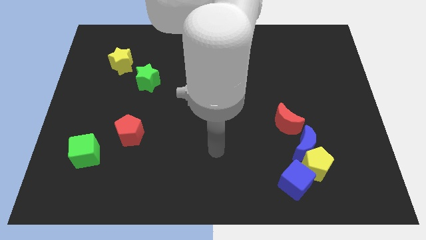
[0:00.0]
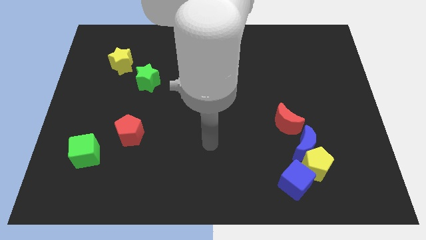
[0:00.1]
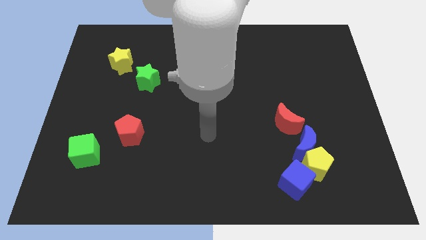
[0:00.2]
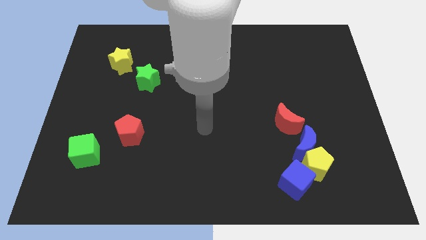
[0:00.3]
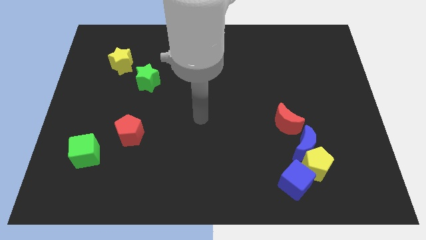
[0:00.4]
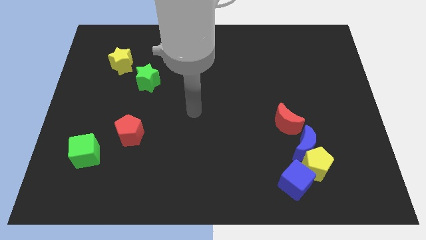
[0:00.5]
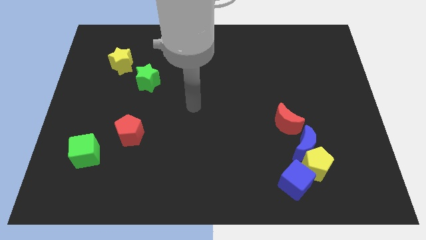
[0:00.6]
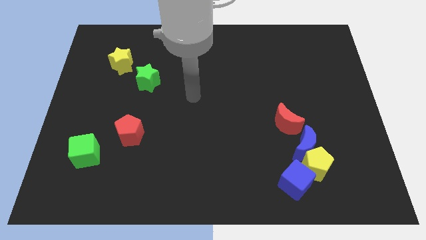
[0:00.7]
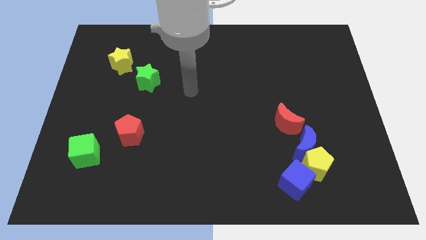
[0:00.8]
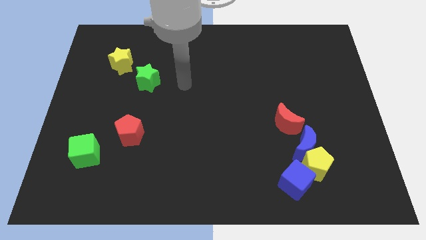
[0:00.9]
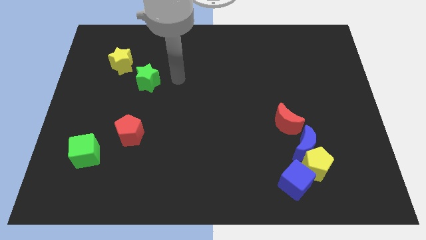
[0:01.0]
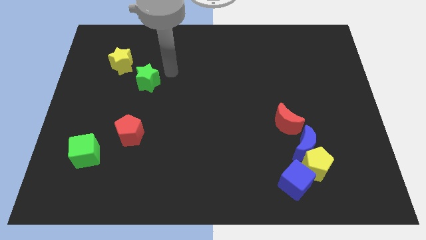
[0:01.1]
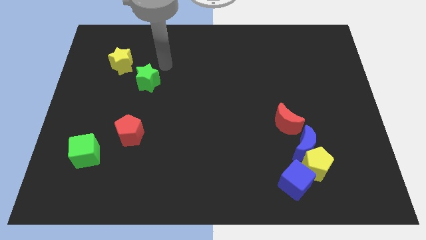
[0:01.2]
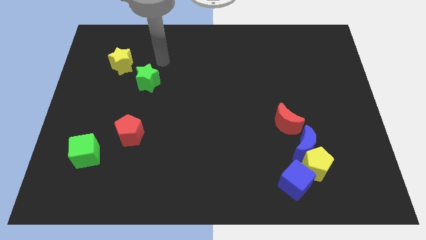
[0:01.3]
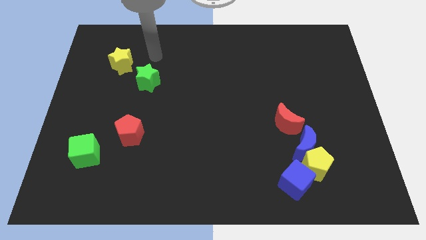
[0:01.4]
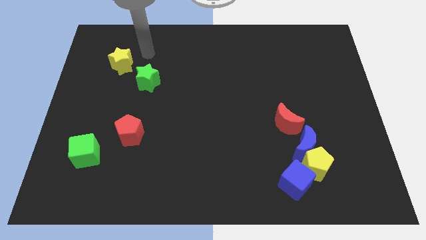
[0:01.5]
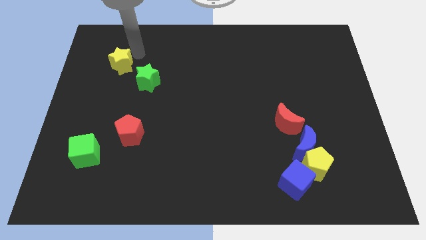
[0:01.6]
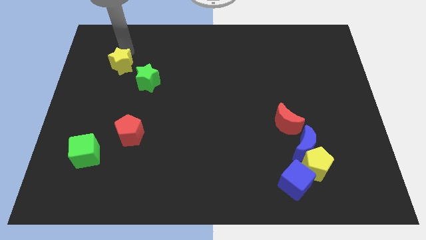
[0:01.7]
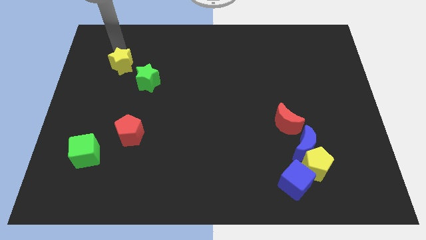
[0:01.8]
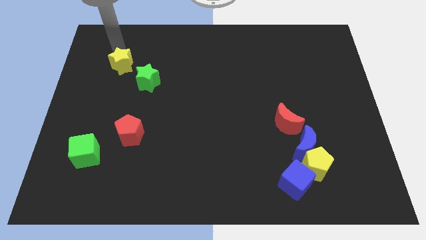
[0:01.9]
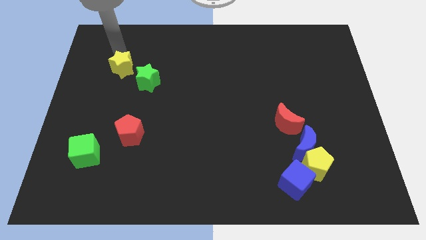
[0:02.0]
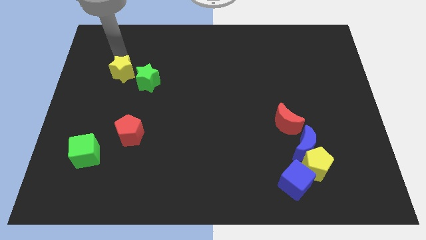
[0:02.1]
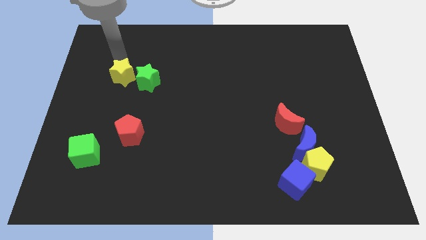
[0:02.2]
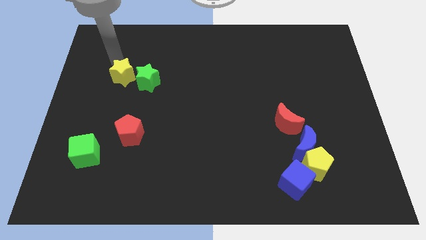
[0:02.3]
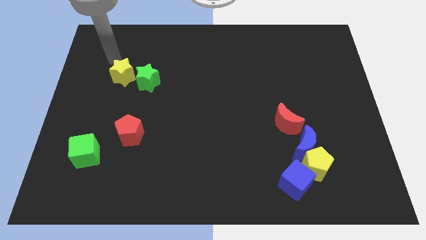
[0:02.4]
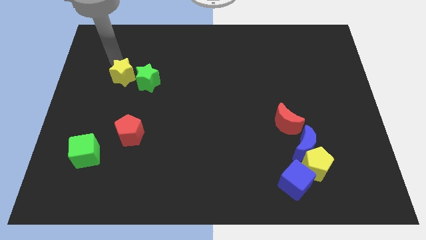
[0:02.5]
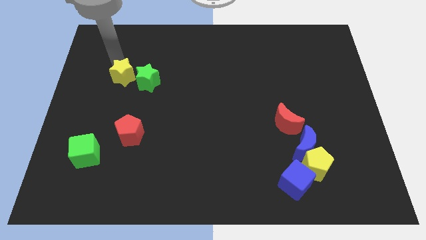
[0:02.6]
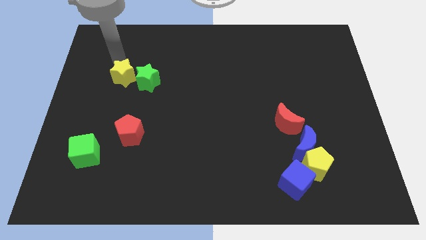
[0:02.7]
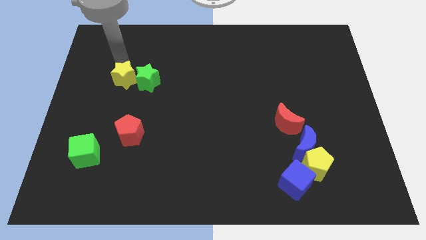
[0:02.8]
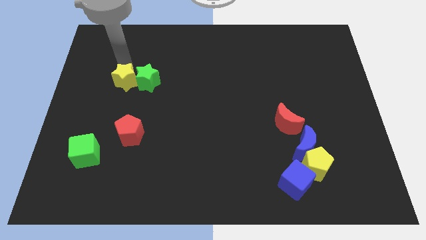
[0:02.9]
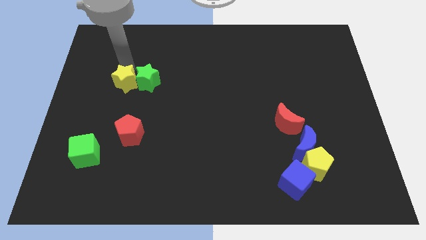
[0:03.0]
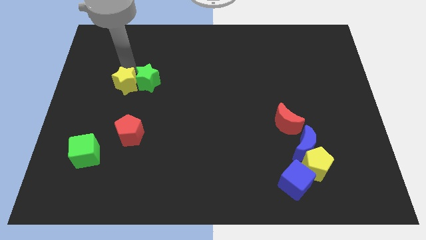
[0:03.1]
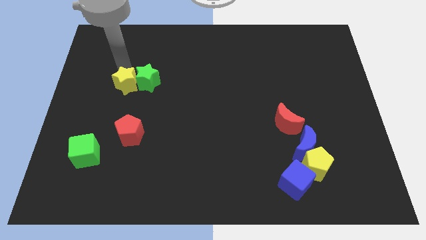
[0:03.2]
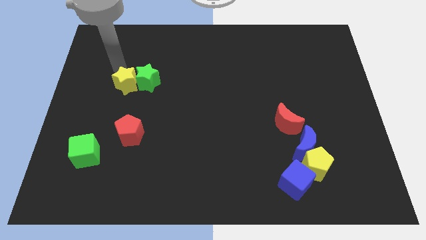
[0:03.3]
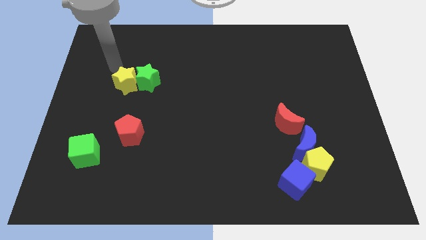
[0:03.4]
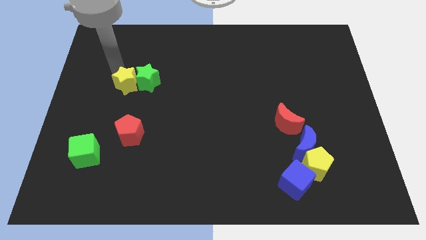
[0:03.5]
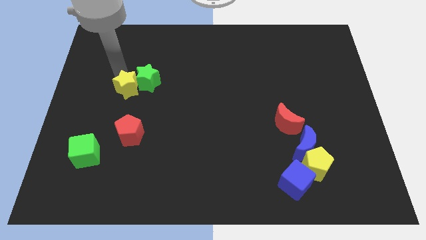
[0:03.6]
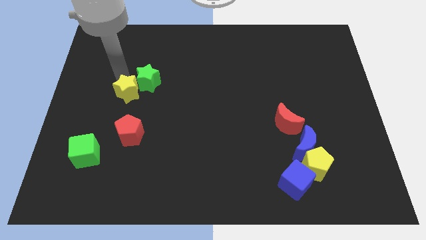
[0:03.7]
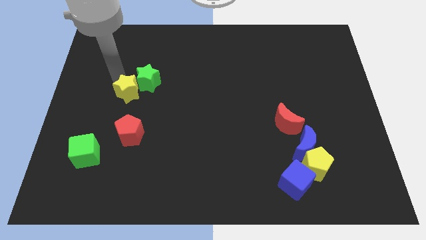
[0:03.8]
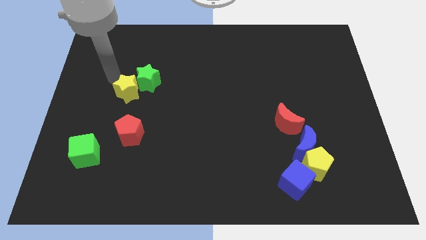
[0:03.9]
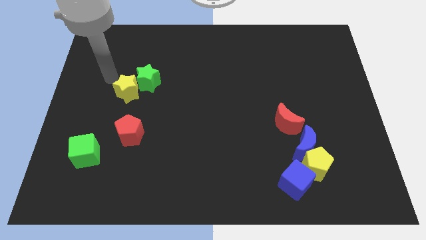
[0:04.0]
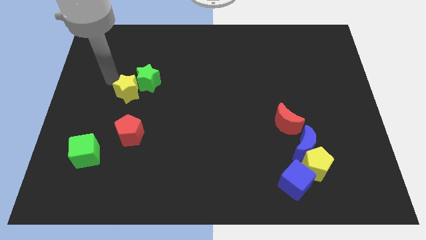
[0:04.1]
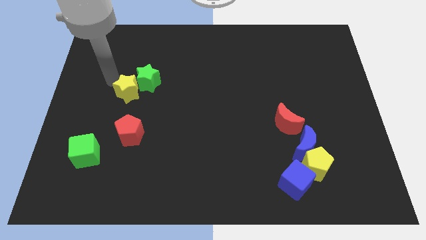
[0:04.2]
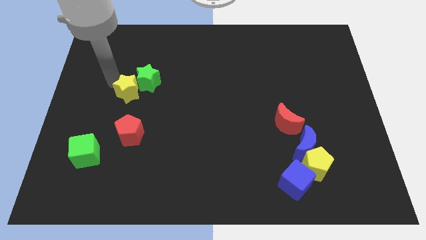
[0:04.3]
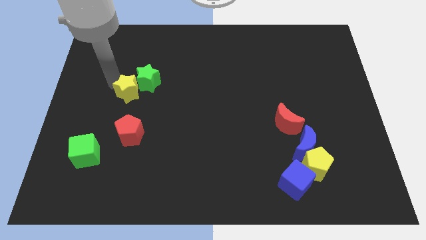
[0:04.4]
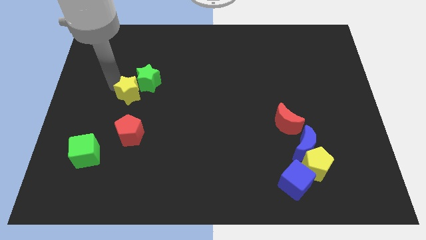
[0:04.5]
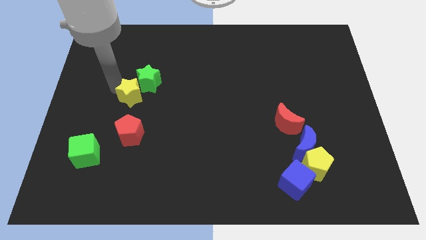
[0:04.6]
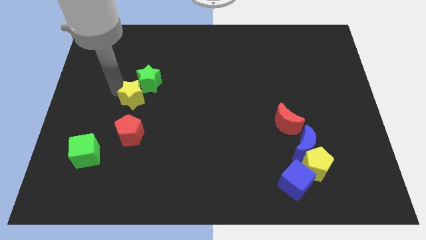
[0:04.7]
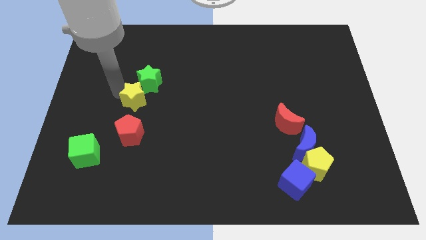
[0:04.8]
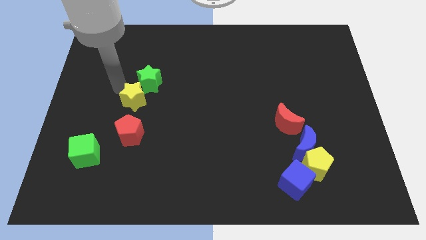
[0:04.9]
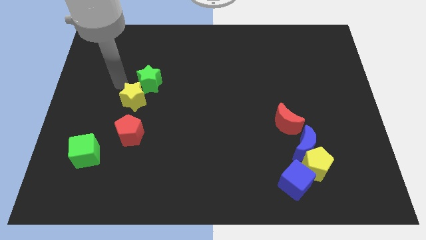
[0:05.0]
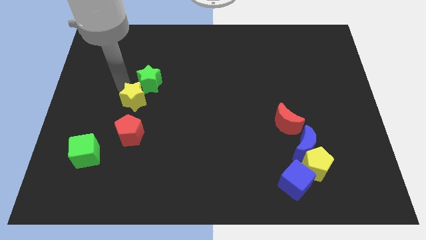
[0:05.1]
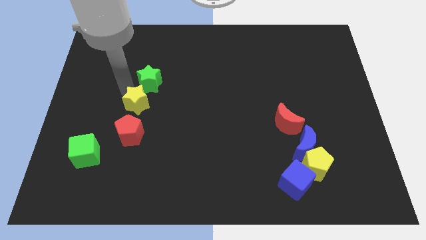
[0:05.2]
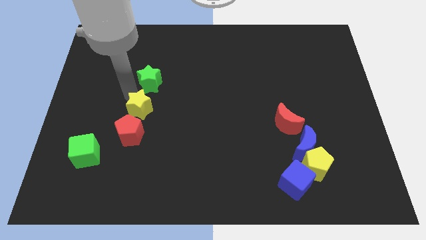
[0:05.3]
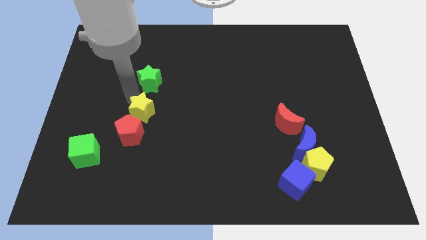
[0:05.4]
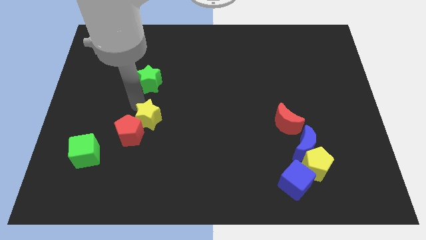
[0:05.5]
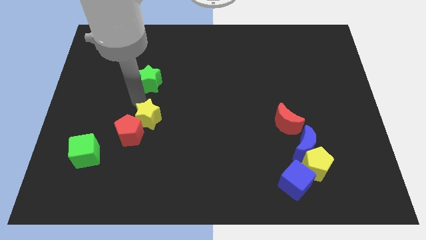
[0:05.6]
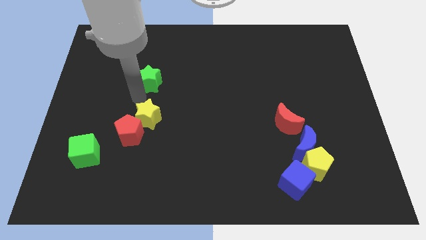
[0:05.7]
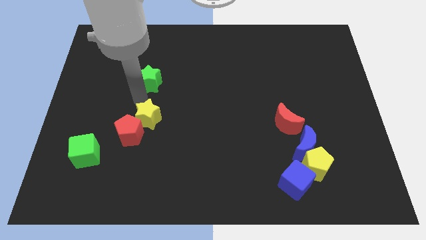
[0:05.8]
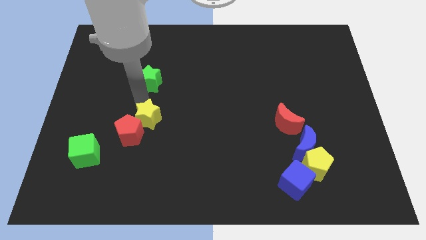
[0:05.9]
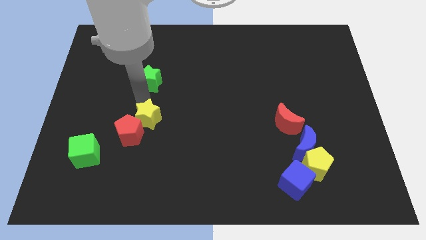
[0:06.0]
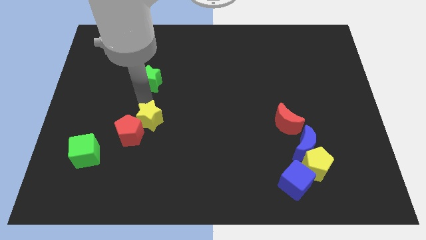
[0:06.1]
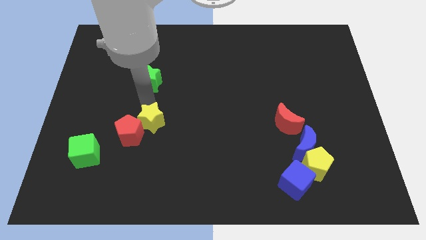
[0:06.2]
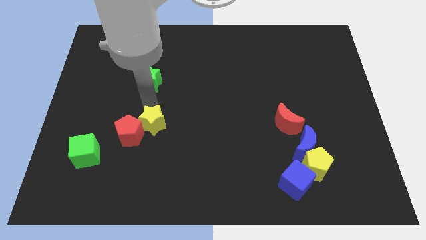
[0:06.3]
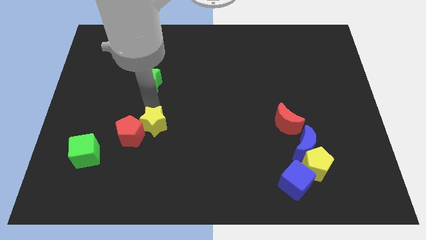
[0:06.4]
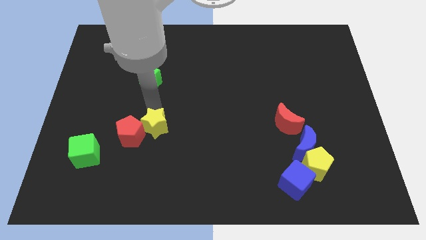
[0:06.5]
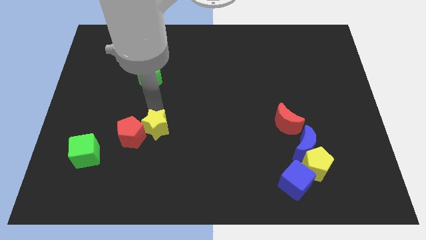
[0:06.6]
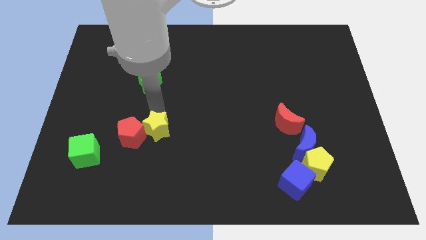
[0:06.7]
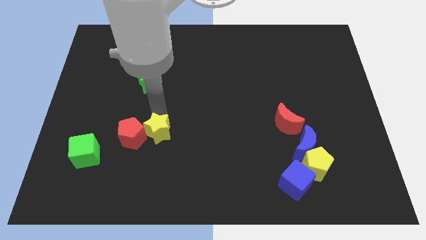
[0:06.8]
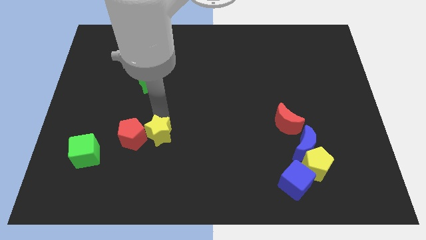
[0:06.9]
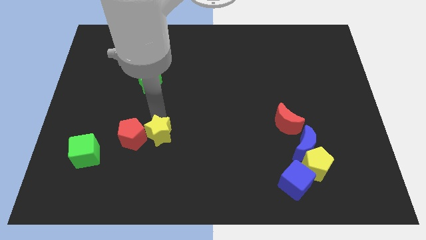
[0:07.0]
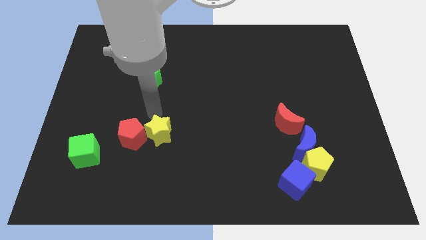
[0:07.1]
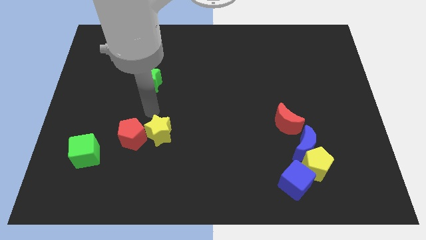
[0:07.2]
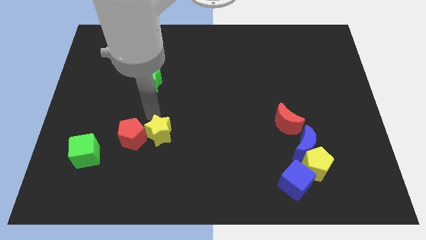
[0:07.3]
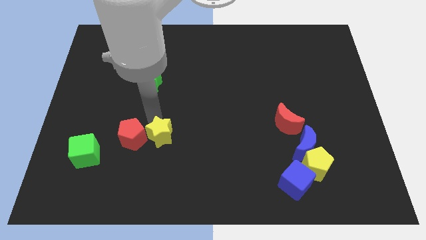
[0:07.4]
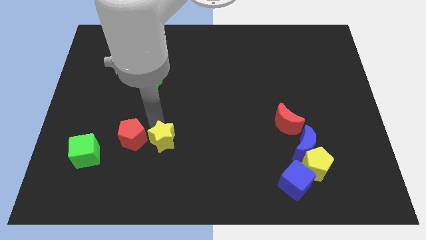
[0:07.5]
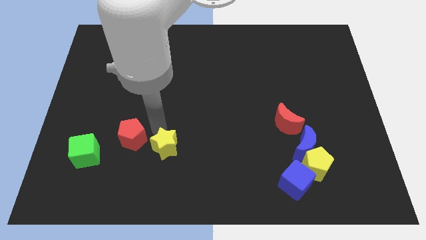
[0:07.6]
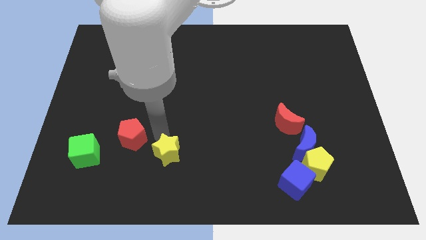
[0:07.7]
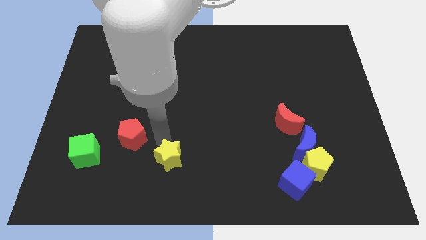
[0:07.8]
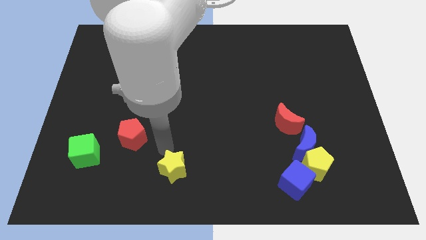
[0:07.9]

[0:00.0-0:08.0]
slide the yellow star to the bottom
